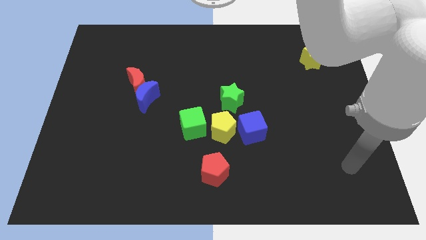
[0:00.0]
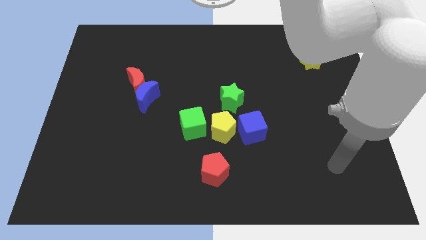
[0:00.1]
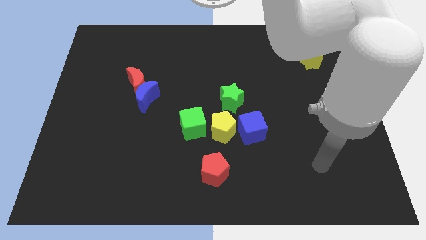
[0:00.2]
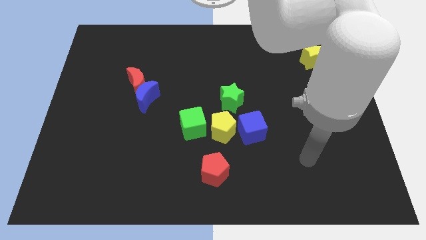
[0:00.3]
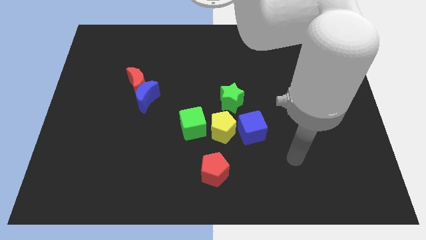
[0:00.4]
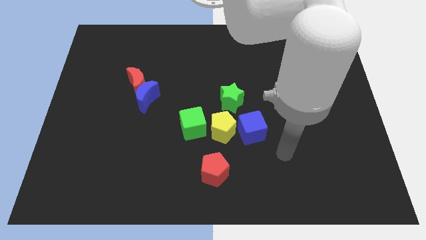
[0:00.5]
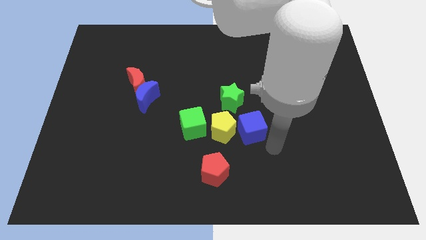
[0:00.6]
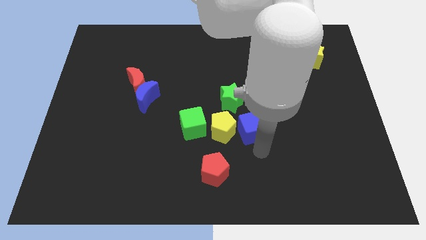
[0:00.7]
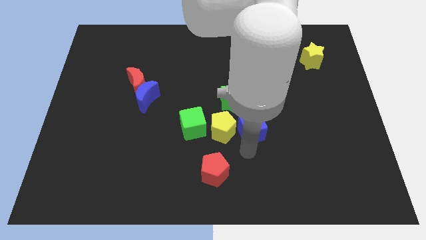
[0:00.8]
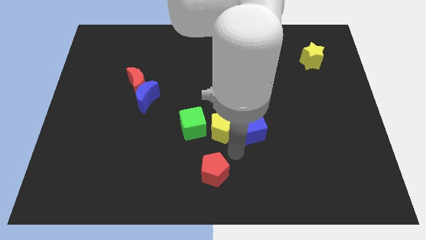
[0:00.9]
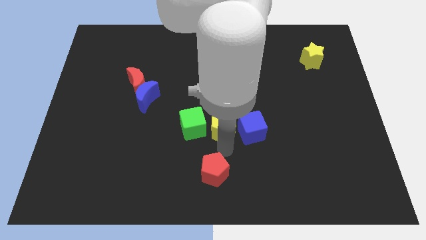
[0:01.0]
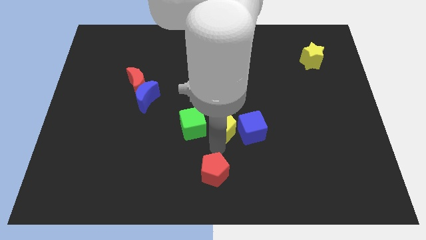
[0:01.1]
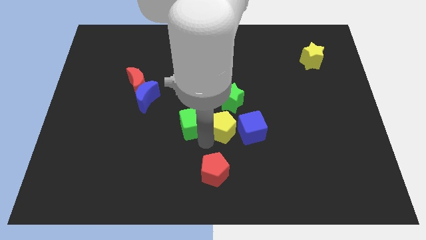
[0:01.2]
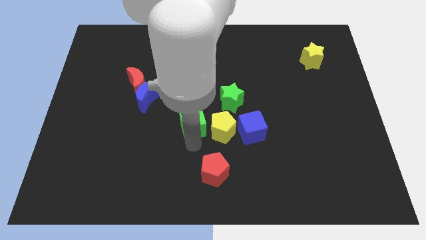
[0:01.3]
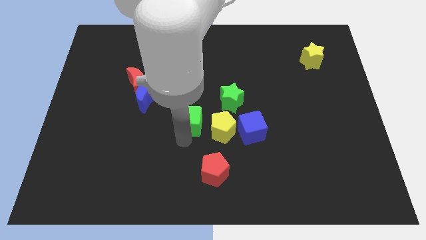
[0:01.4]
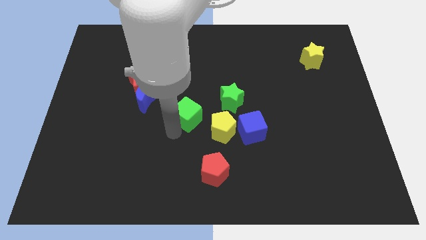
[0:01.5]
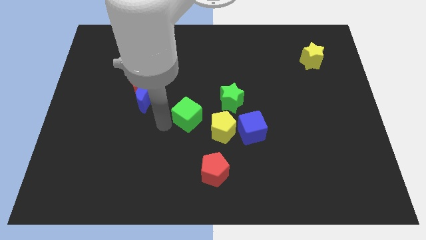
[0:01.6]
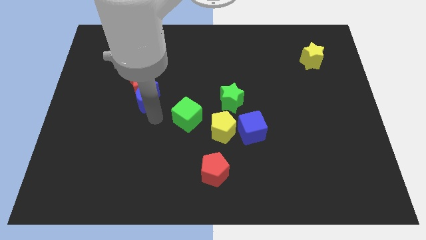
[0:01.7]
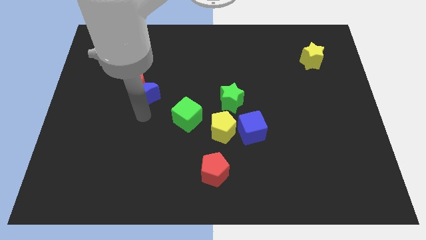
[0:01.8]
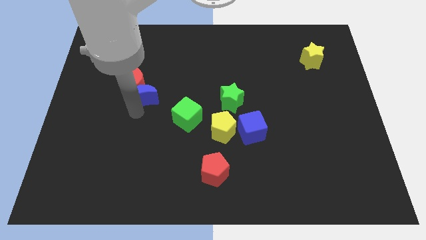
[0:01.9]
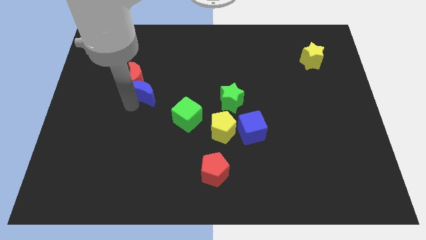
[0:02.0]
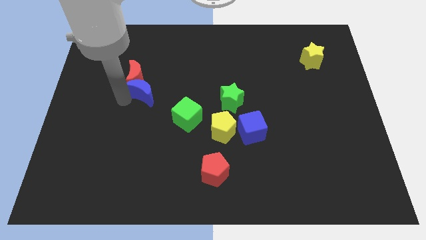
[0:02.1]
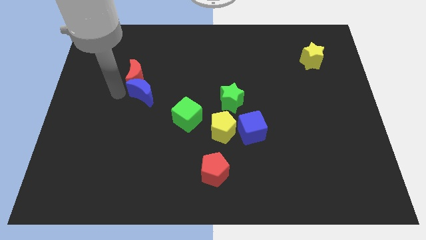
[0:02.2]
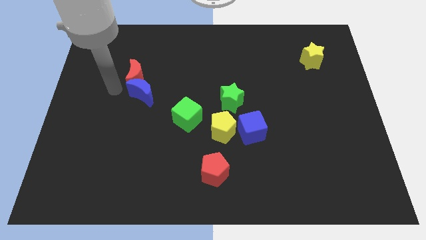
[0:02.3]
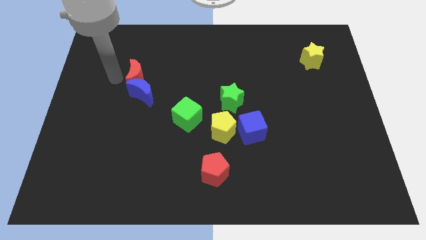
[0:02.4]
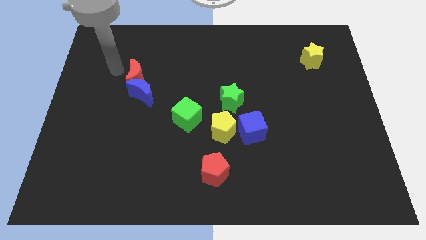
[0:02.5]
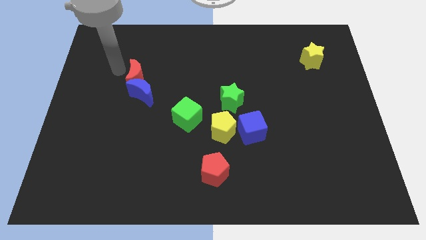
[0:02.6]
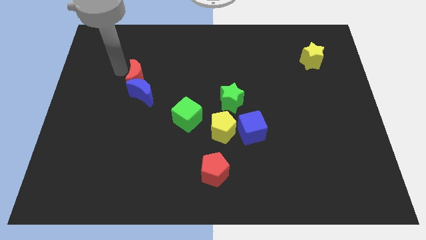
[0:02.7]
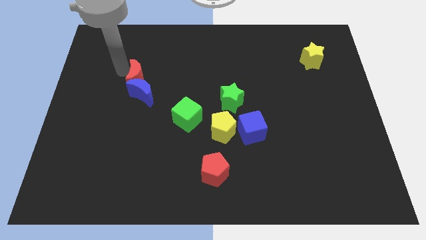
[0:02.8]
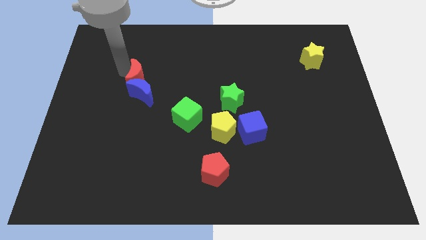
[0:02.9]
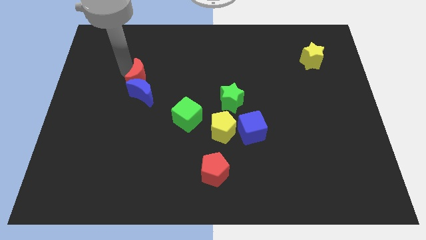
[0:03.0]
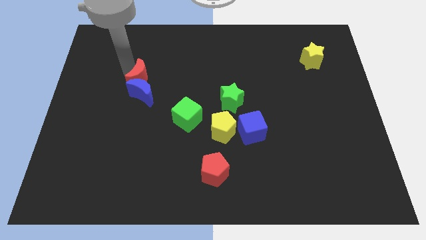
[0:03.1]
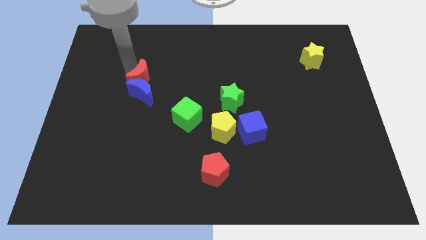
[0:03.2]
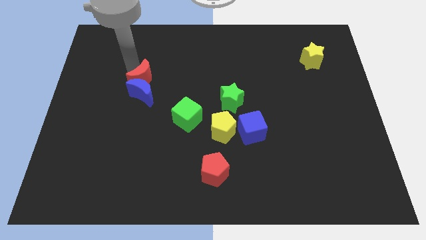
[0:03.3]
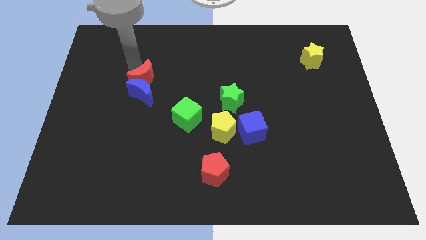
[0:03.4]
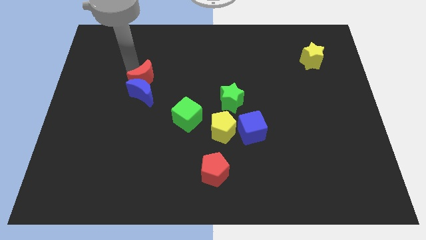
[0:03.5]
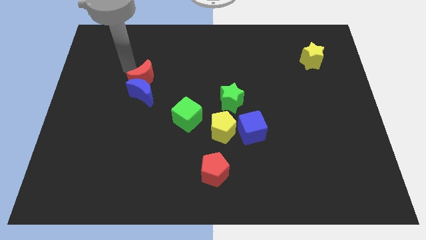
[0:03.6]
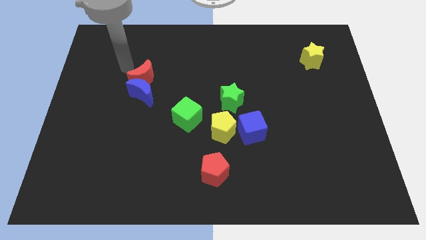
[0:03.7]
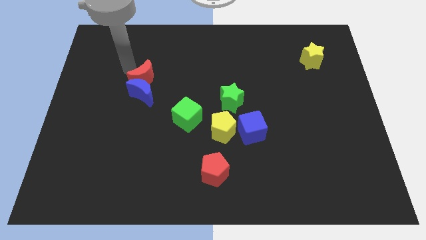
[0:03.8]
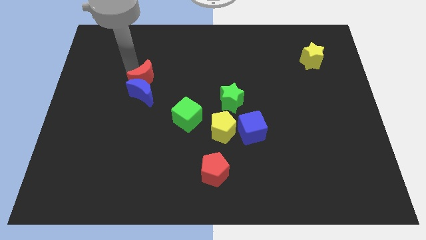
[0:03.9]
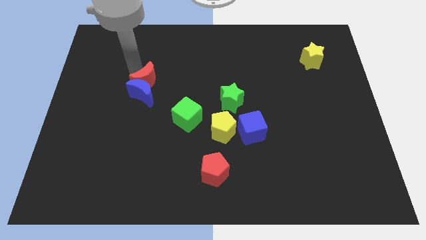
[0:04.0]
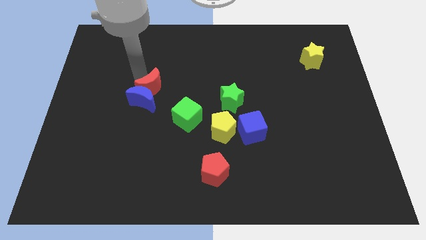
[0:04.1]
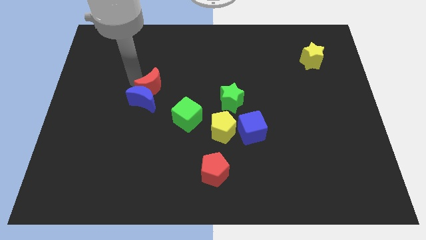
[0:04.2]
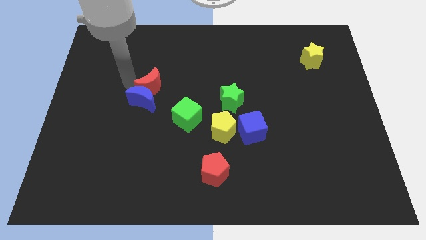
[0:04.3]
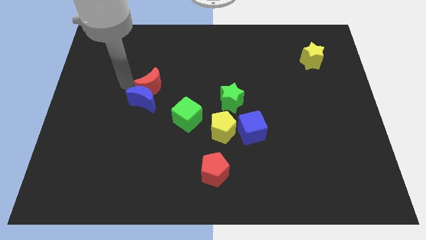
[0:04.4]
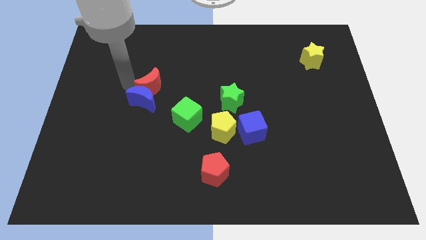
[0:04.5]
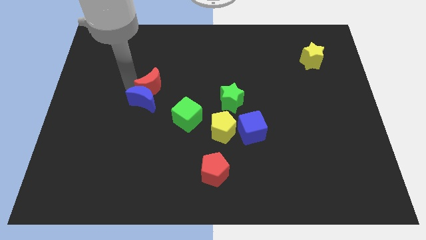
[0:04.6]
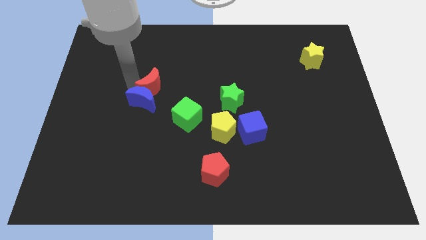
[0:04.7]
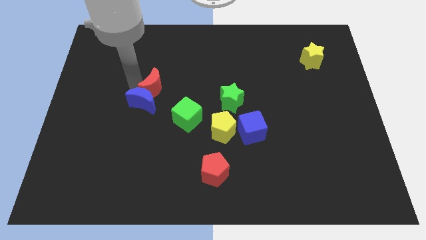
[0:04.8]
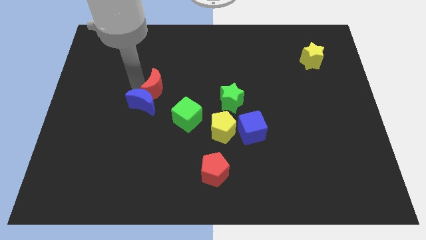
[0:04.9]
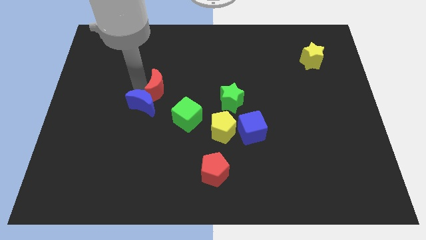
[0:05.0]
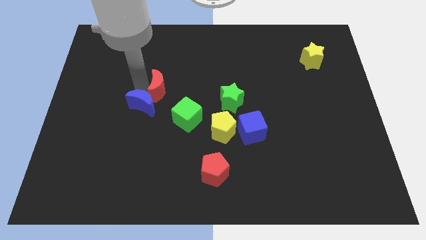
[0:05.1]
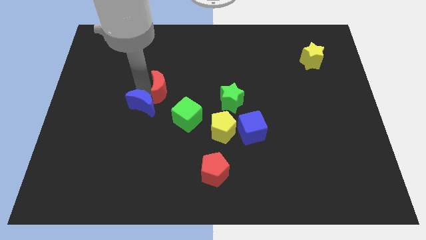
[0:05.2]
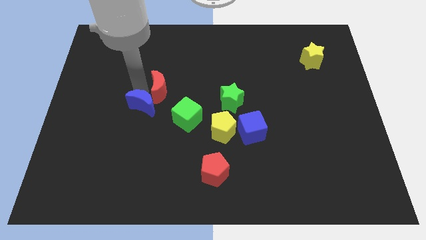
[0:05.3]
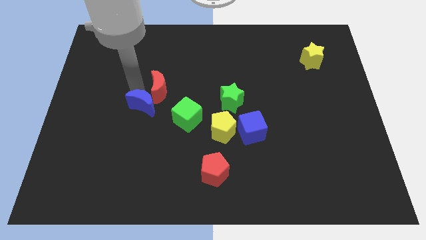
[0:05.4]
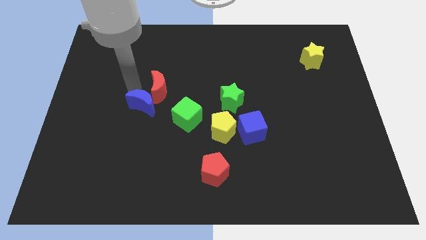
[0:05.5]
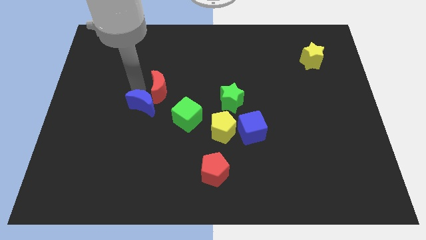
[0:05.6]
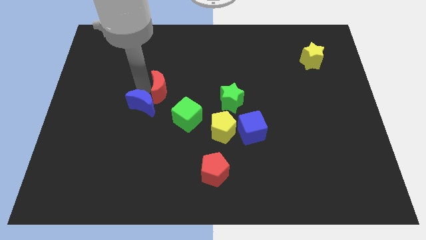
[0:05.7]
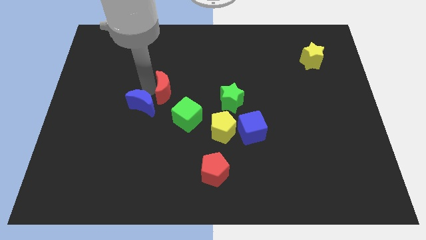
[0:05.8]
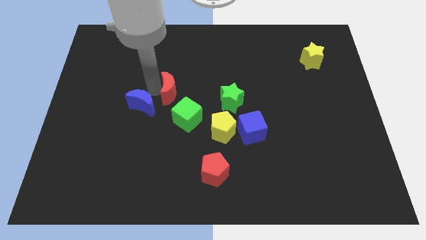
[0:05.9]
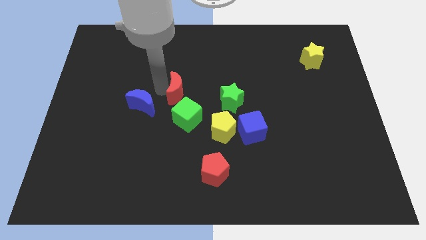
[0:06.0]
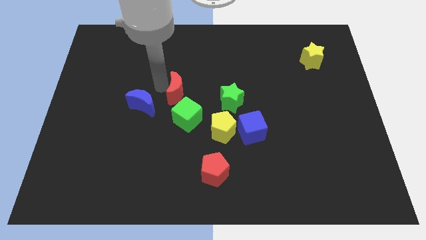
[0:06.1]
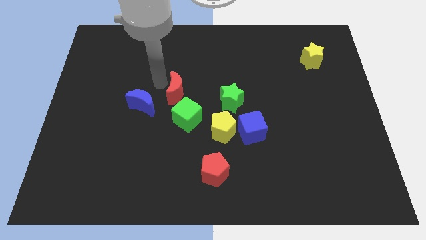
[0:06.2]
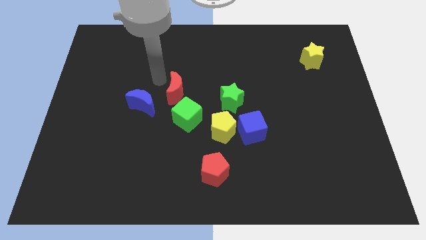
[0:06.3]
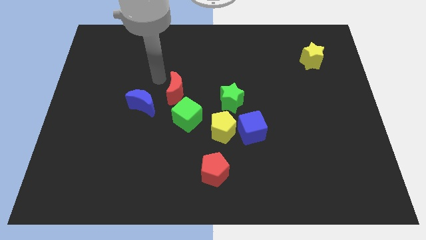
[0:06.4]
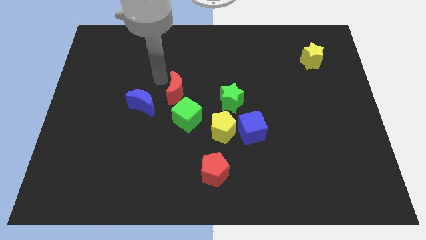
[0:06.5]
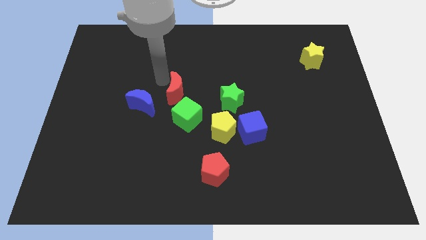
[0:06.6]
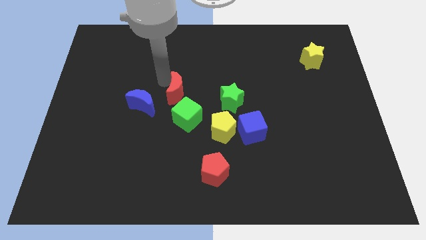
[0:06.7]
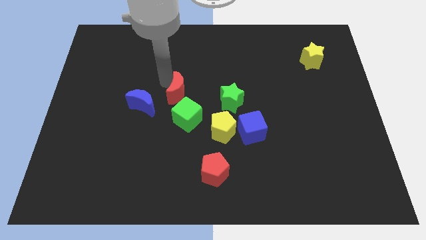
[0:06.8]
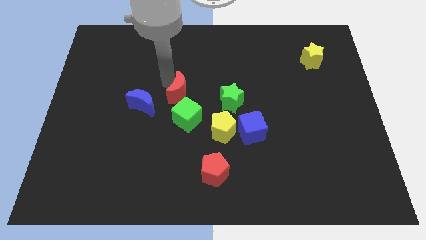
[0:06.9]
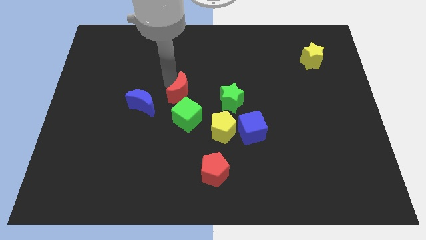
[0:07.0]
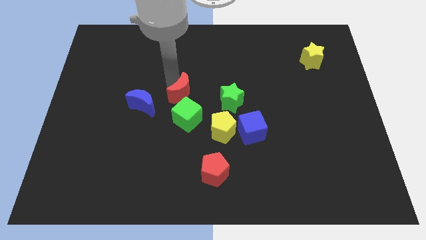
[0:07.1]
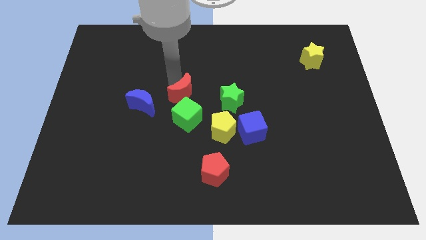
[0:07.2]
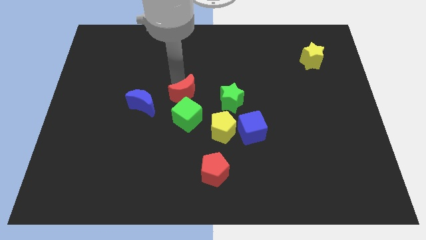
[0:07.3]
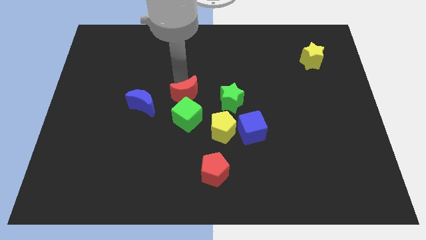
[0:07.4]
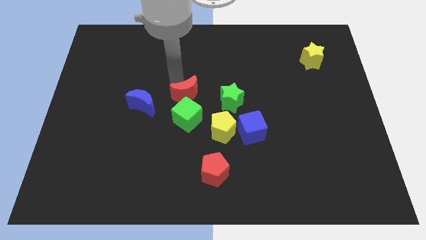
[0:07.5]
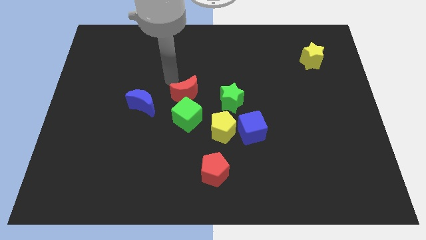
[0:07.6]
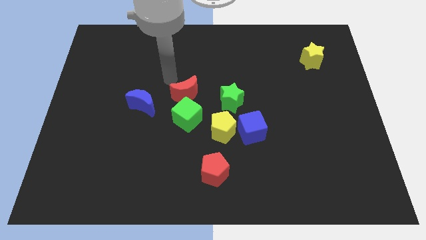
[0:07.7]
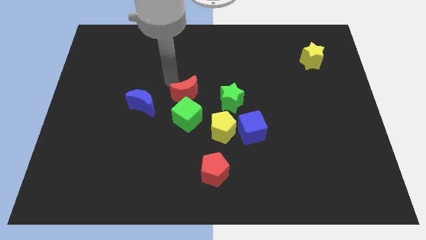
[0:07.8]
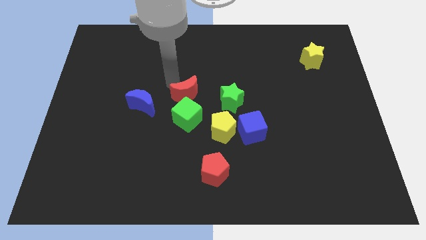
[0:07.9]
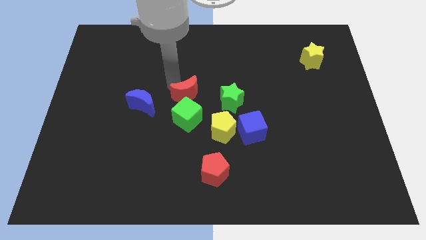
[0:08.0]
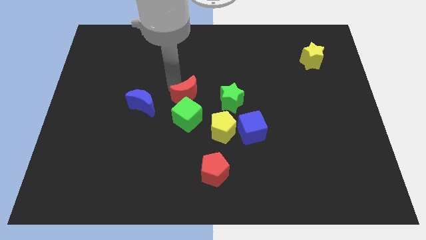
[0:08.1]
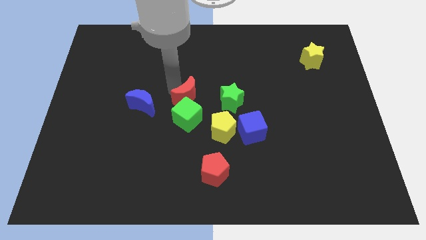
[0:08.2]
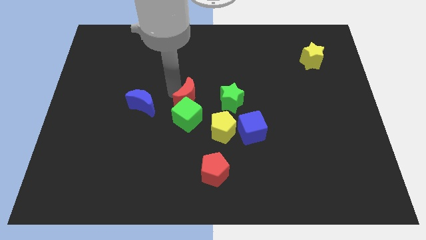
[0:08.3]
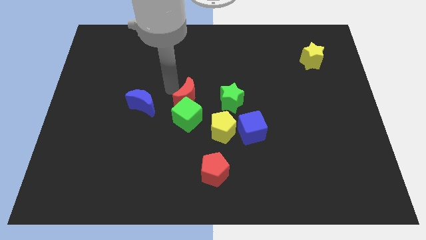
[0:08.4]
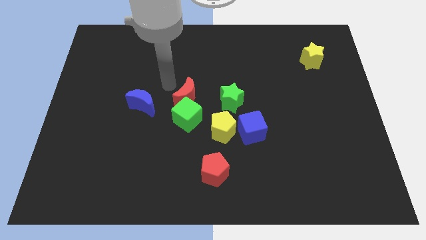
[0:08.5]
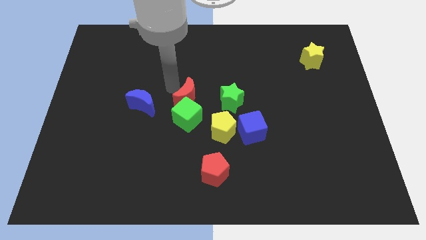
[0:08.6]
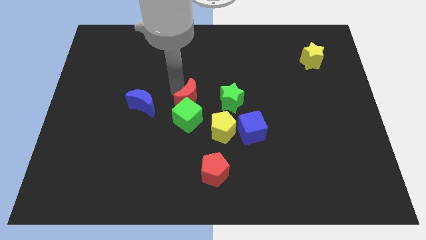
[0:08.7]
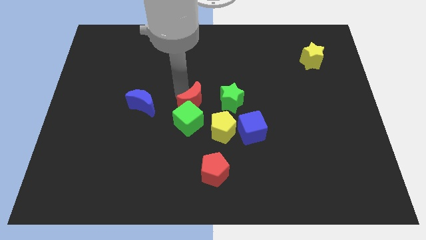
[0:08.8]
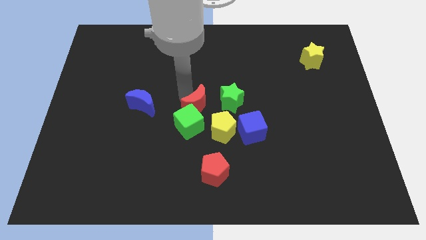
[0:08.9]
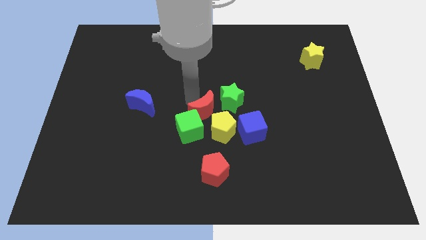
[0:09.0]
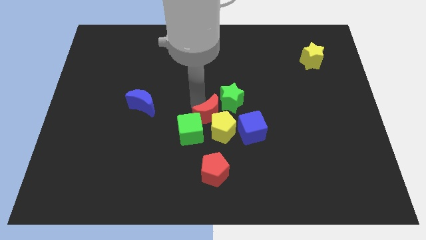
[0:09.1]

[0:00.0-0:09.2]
slide the red moon next to the yellow pentagon
